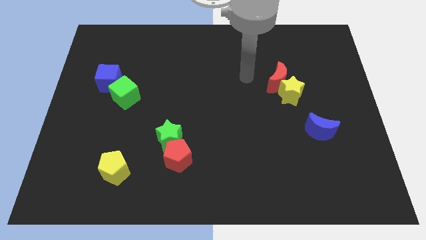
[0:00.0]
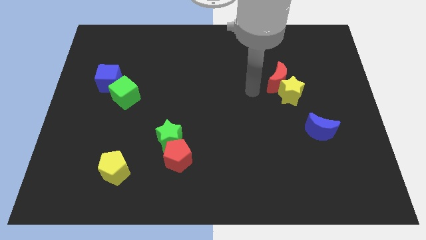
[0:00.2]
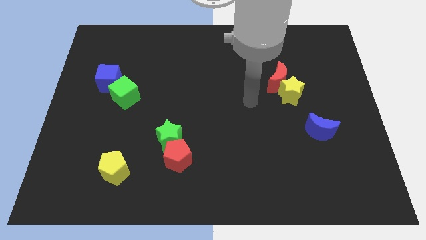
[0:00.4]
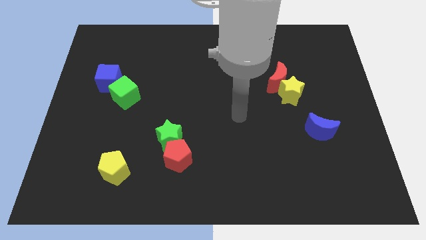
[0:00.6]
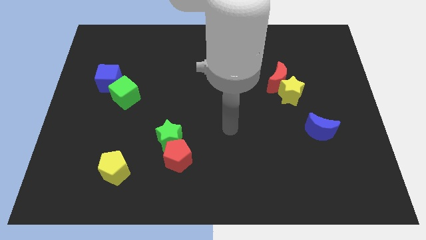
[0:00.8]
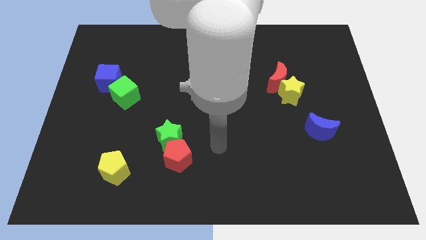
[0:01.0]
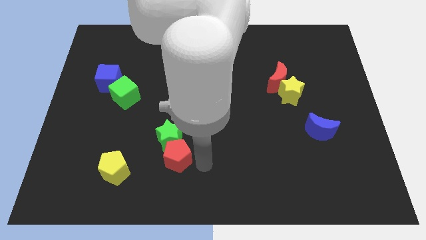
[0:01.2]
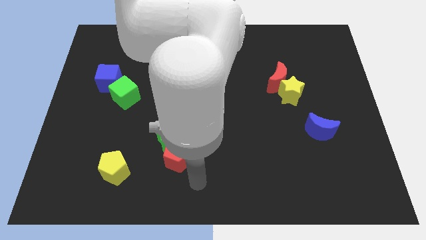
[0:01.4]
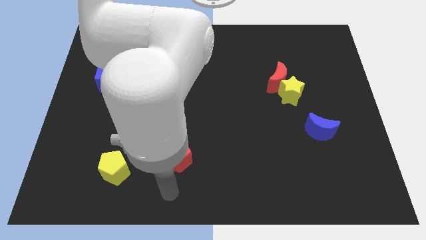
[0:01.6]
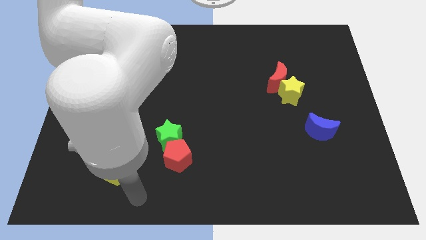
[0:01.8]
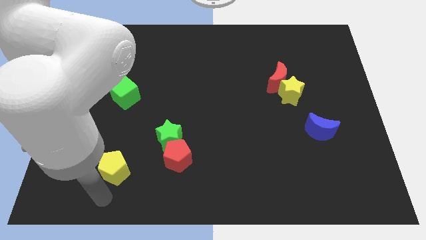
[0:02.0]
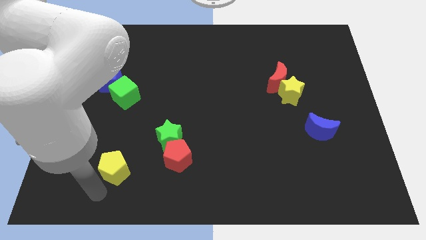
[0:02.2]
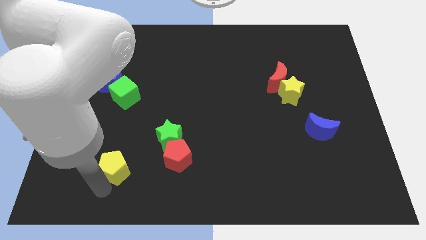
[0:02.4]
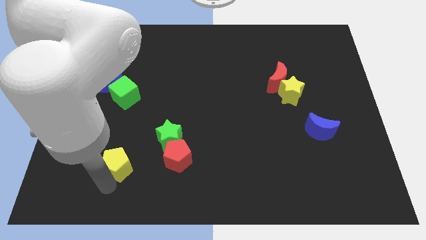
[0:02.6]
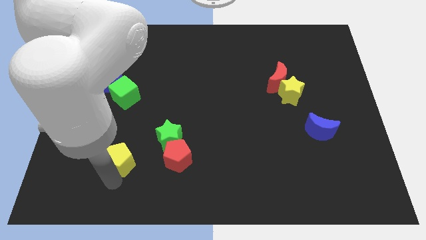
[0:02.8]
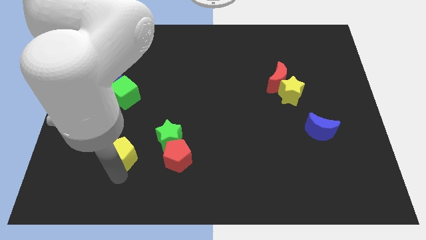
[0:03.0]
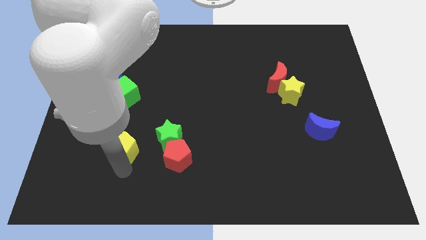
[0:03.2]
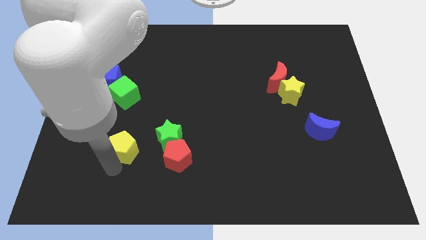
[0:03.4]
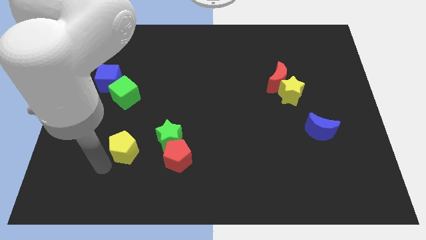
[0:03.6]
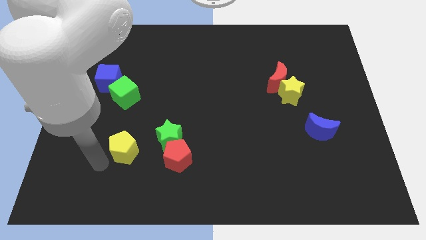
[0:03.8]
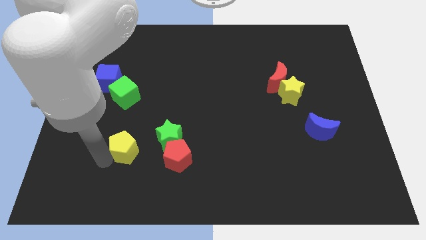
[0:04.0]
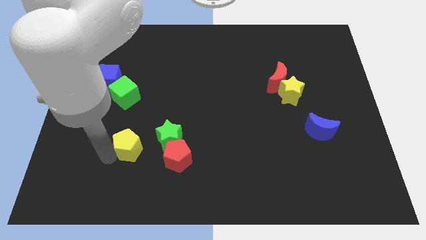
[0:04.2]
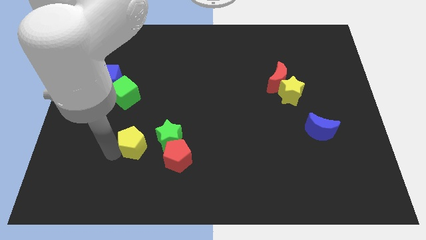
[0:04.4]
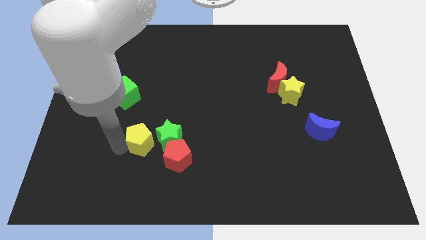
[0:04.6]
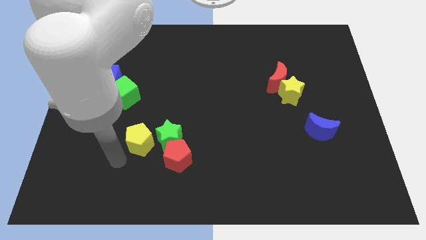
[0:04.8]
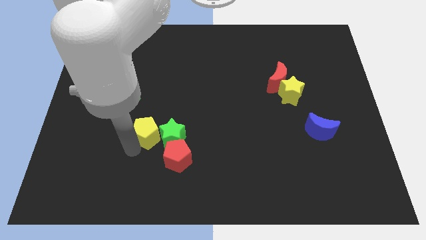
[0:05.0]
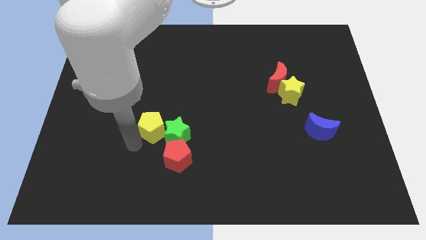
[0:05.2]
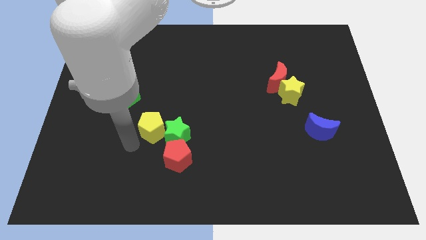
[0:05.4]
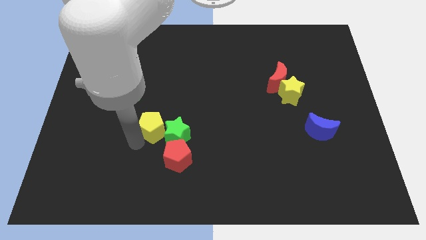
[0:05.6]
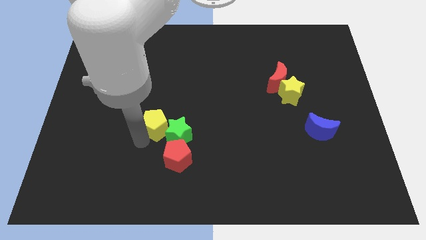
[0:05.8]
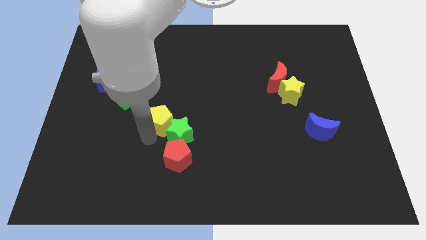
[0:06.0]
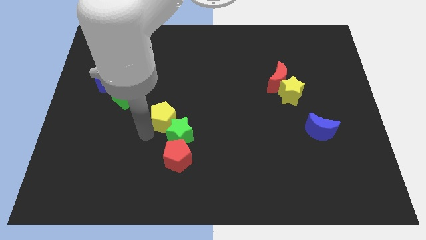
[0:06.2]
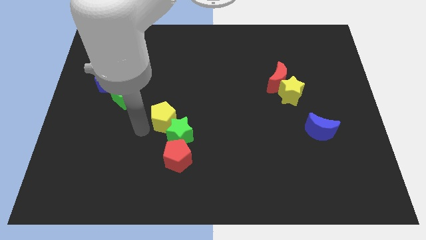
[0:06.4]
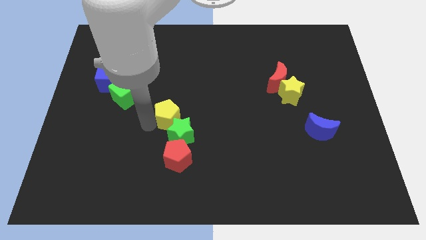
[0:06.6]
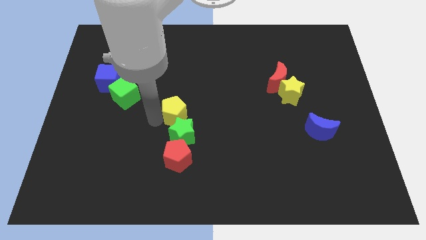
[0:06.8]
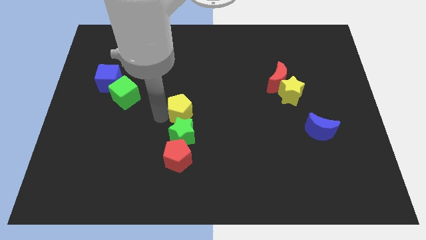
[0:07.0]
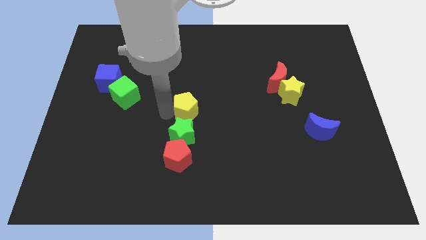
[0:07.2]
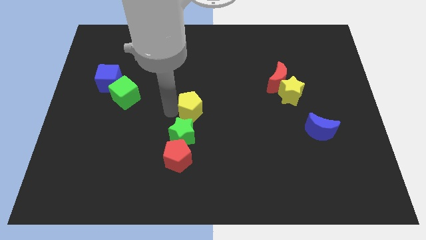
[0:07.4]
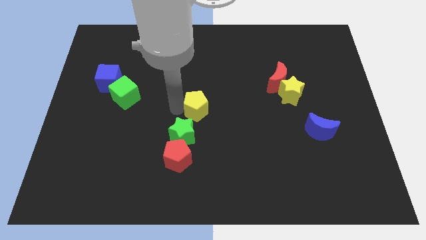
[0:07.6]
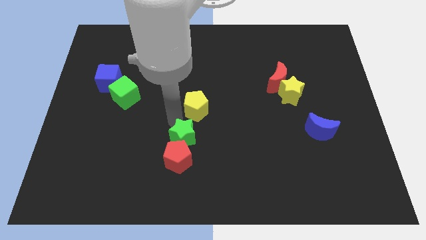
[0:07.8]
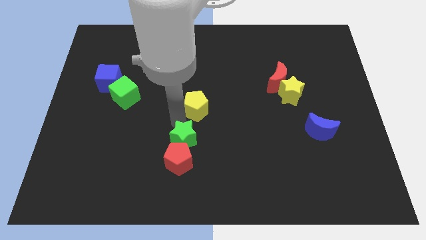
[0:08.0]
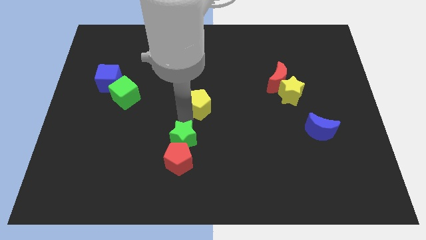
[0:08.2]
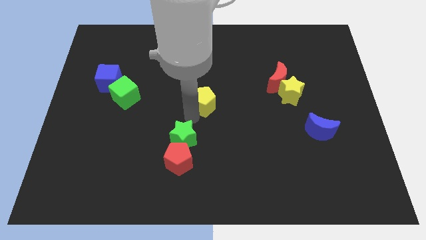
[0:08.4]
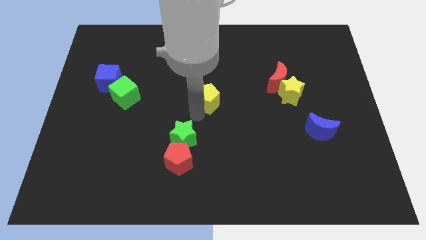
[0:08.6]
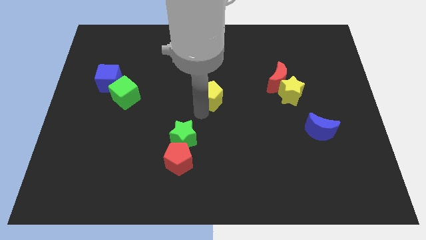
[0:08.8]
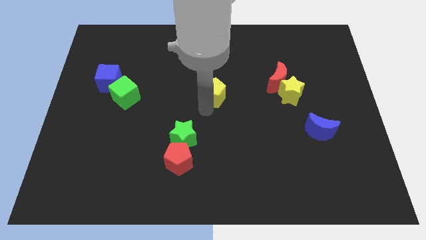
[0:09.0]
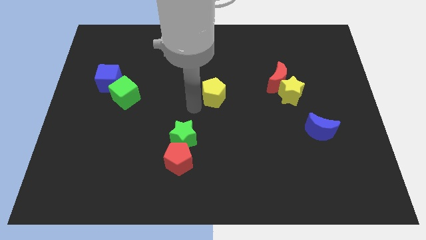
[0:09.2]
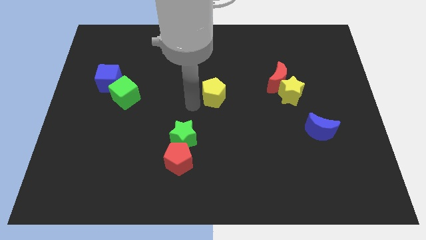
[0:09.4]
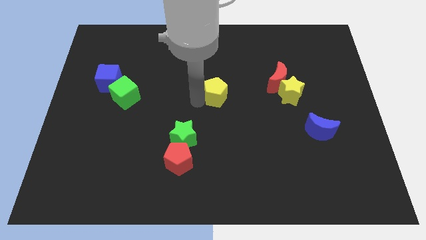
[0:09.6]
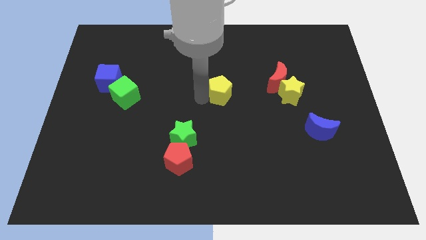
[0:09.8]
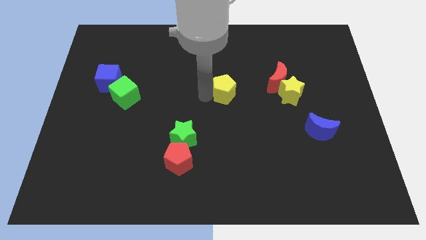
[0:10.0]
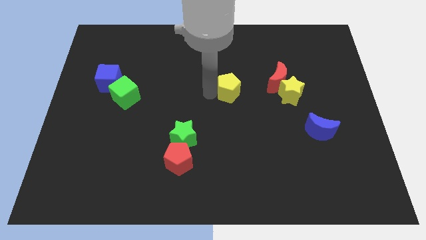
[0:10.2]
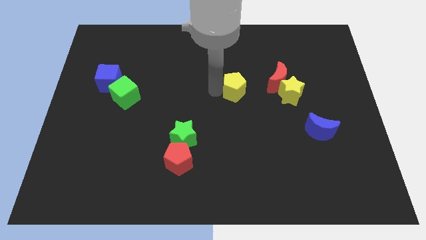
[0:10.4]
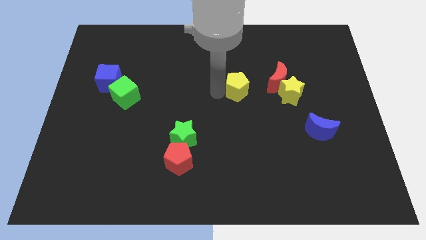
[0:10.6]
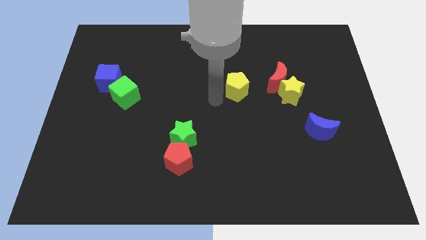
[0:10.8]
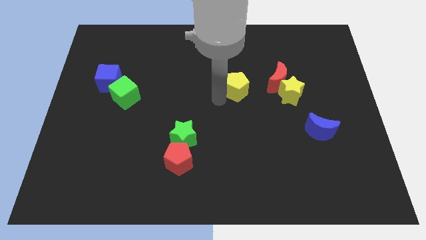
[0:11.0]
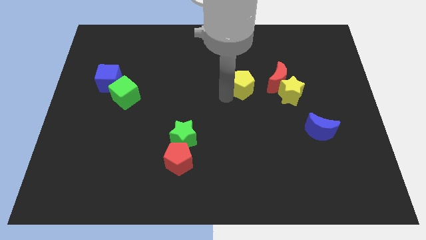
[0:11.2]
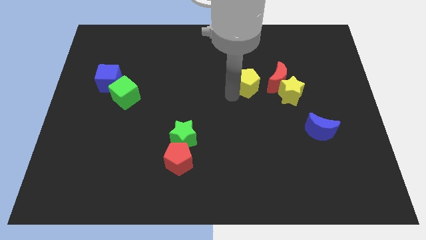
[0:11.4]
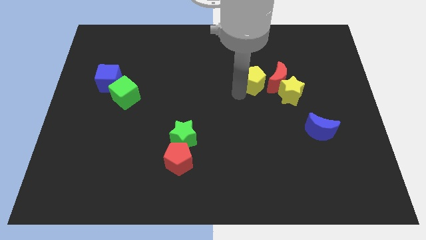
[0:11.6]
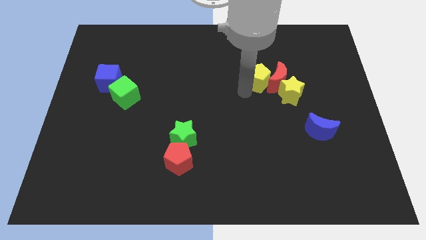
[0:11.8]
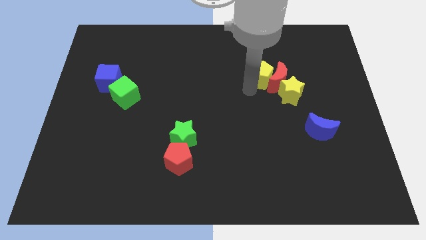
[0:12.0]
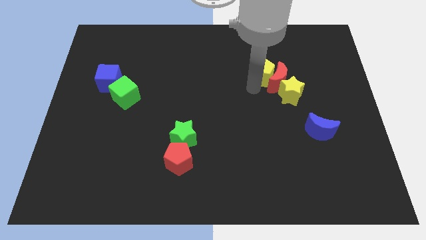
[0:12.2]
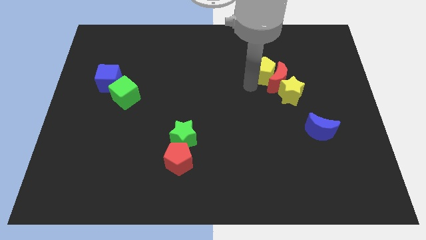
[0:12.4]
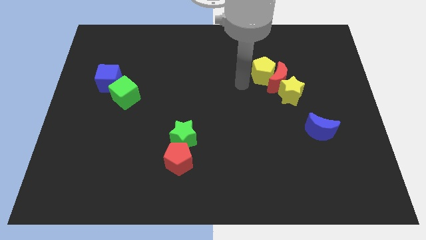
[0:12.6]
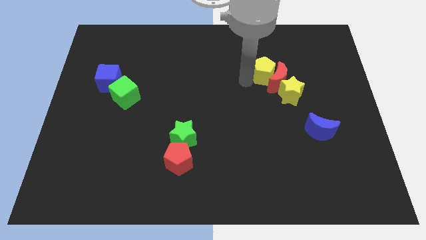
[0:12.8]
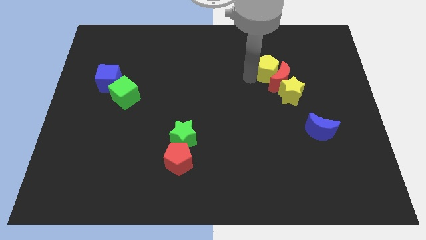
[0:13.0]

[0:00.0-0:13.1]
slide the yellow pentagon to the top side of the yellow star

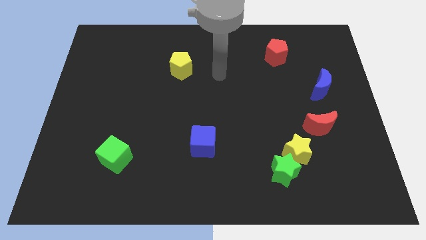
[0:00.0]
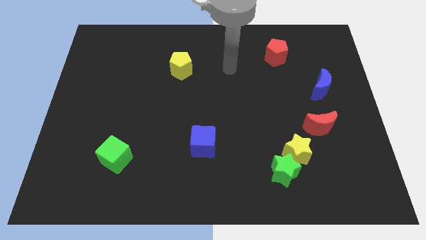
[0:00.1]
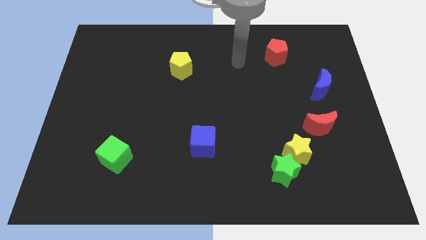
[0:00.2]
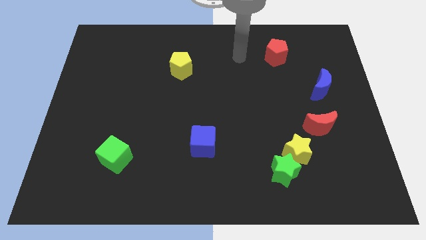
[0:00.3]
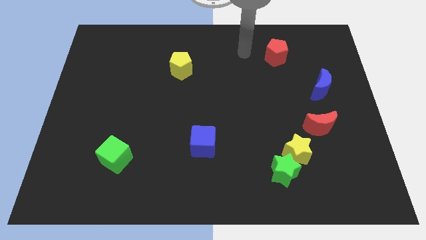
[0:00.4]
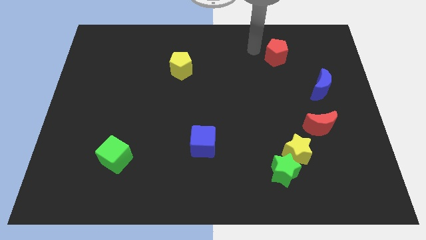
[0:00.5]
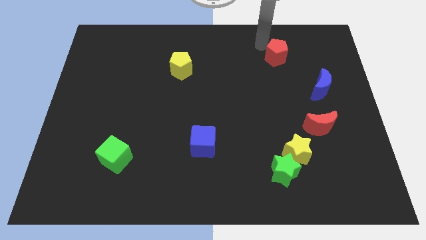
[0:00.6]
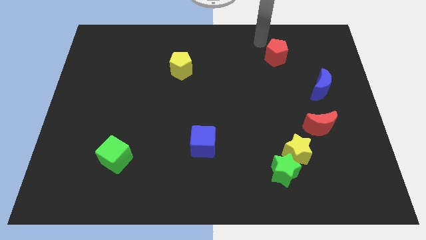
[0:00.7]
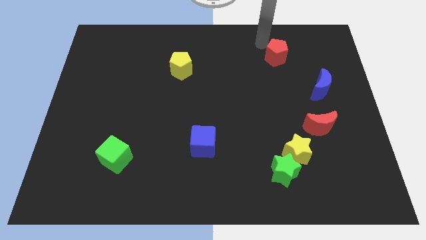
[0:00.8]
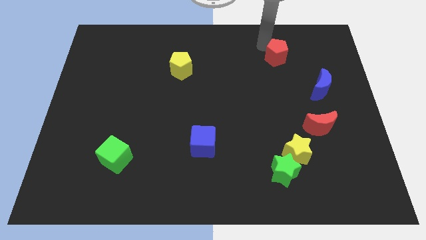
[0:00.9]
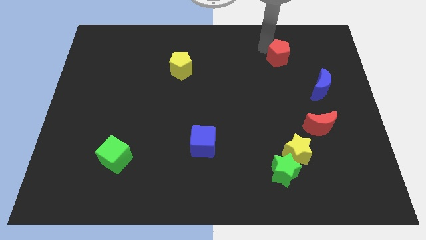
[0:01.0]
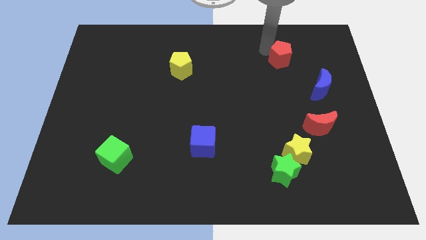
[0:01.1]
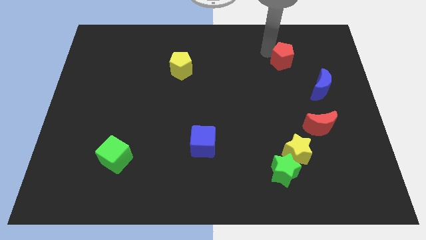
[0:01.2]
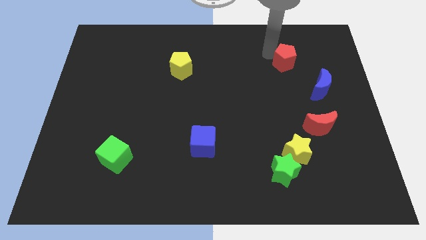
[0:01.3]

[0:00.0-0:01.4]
push the red pentagon to the top left of the blue moon
